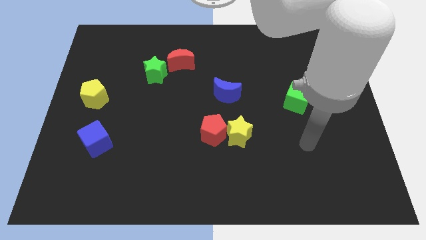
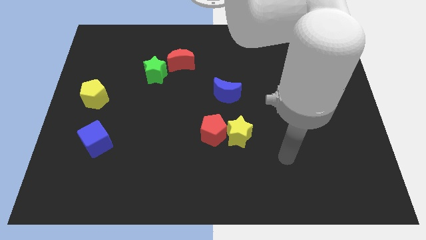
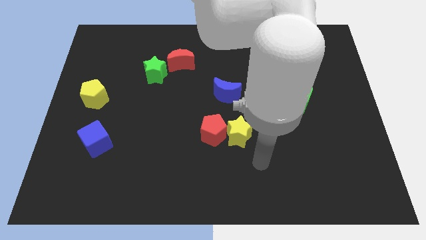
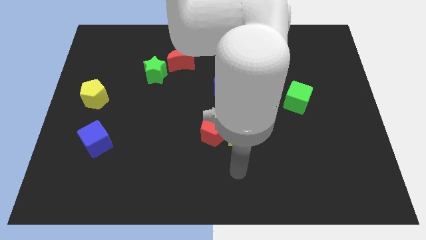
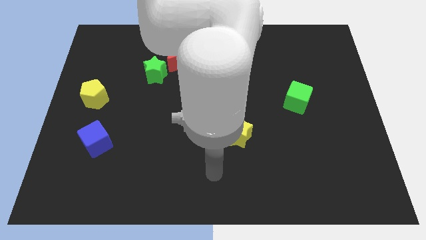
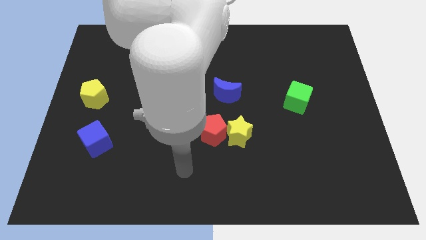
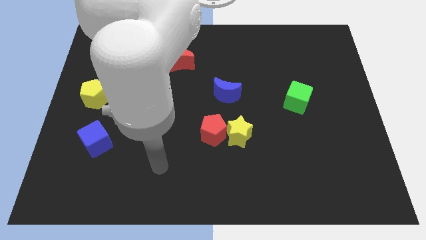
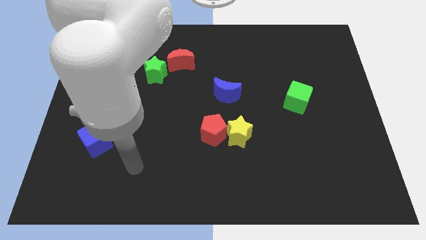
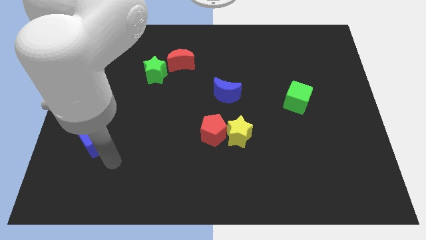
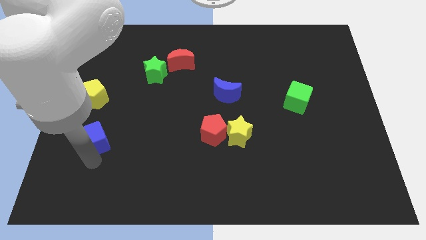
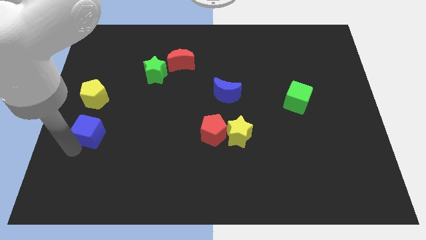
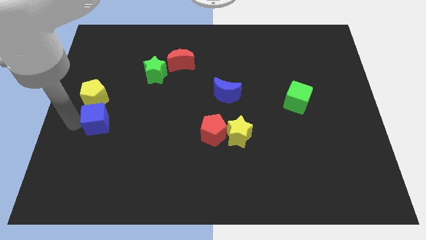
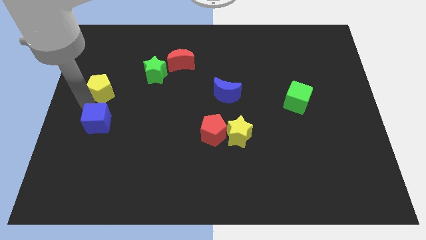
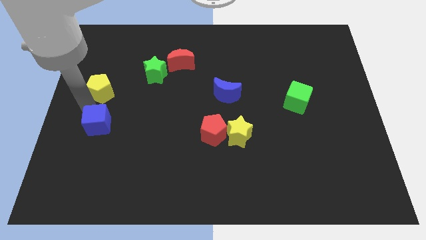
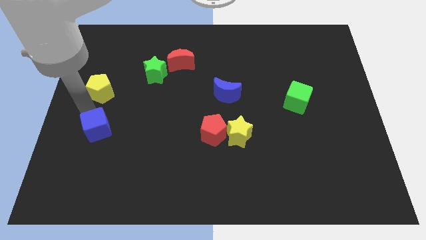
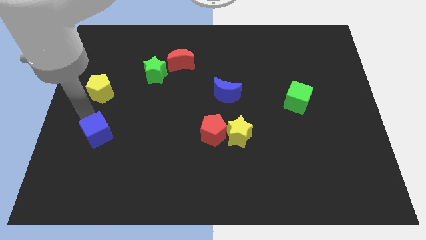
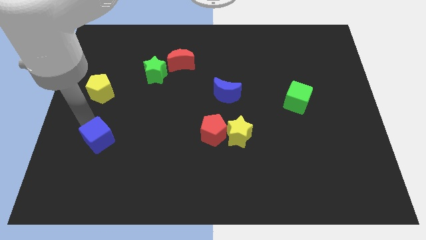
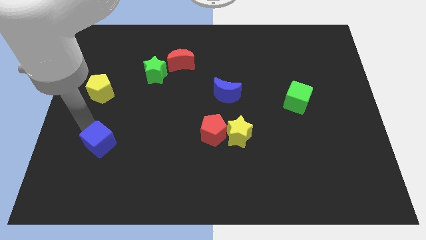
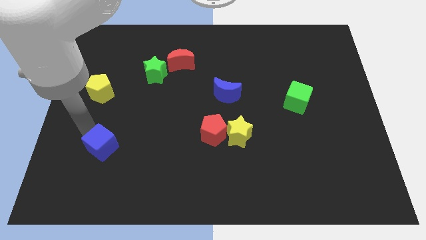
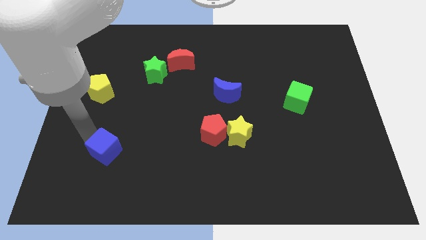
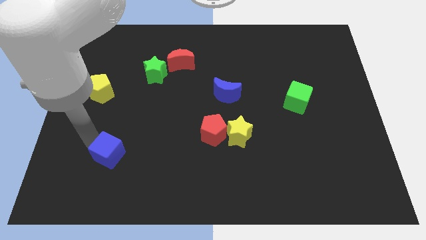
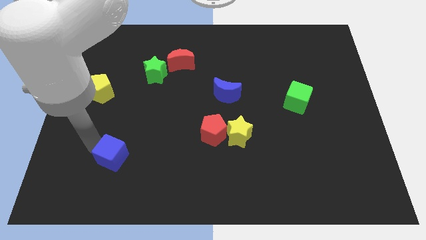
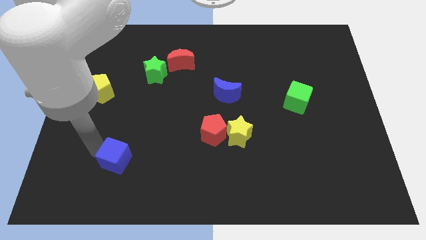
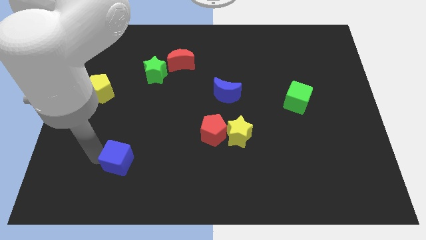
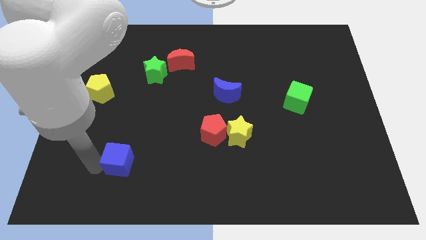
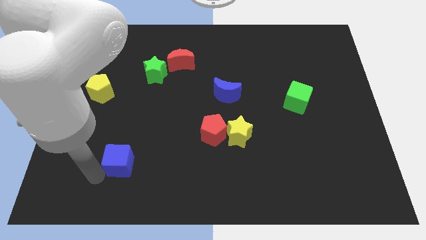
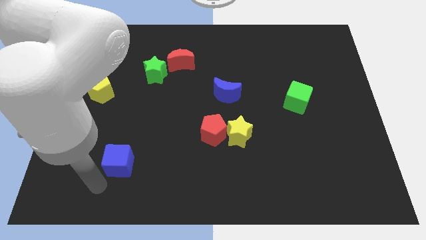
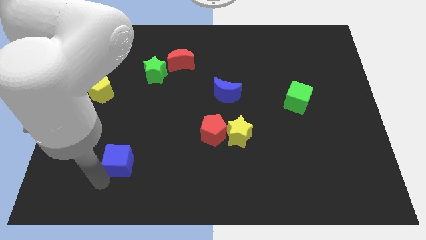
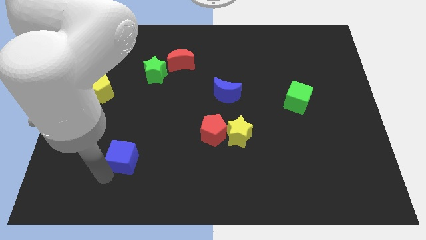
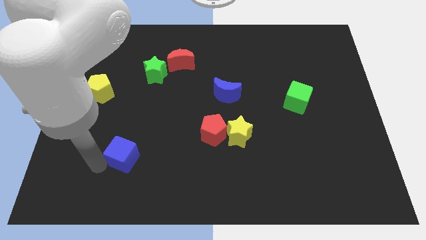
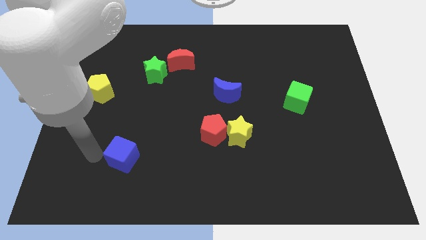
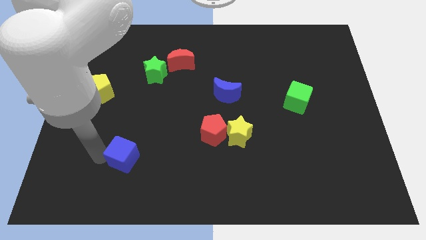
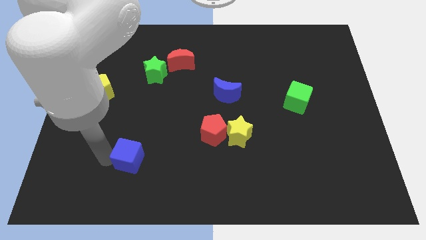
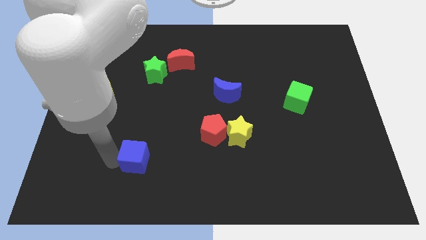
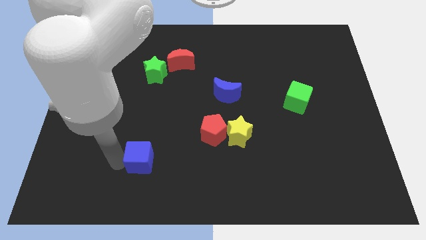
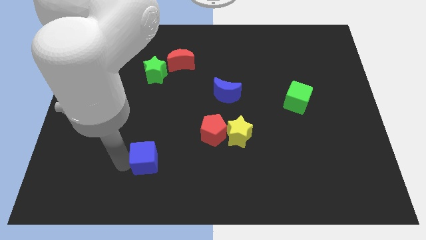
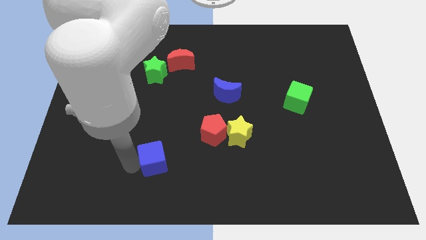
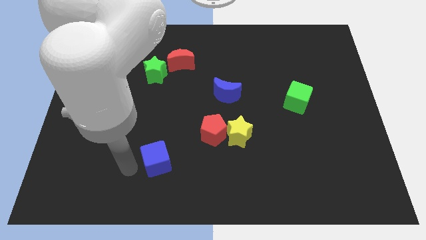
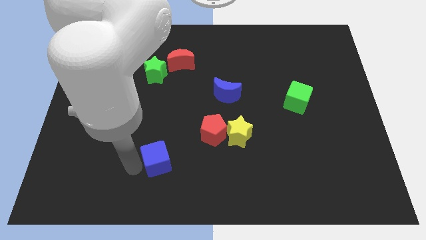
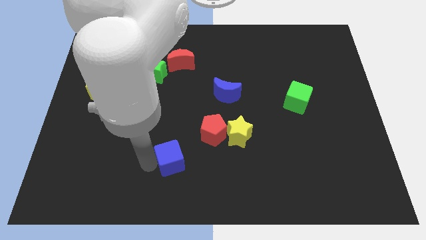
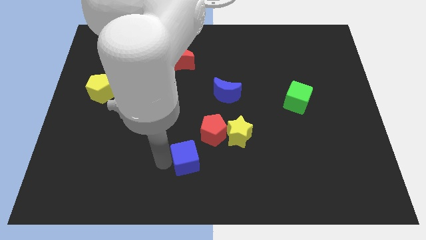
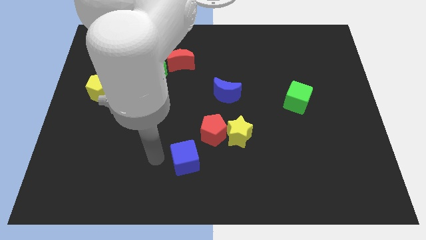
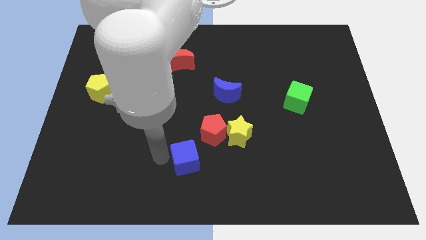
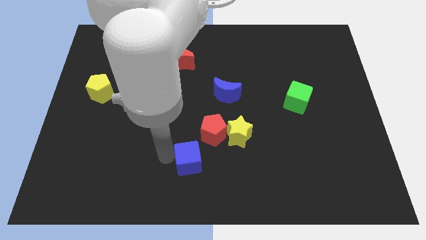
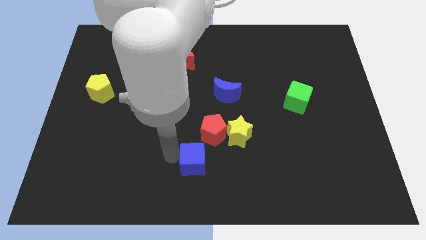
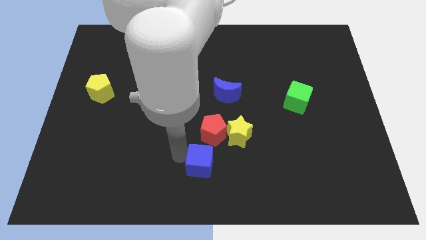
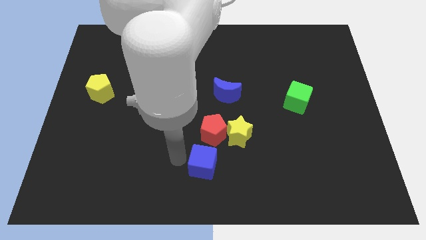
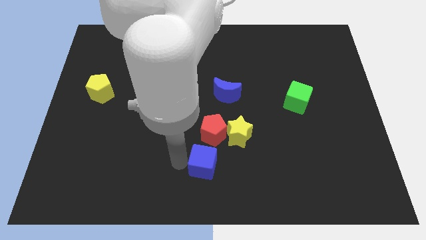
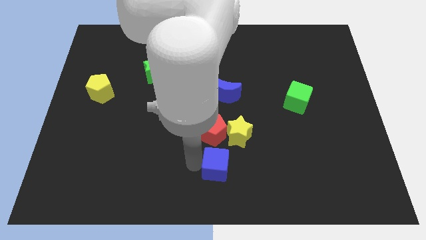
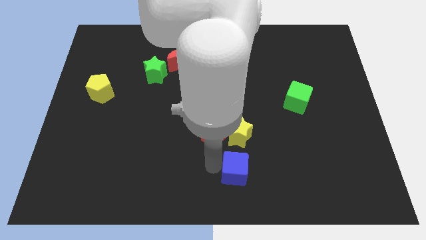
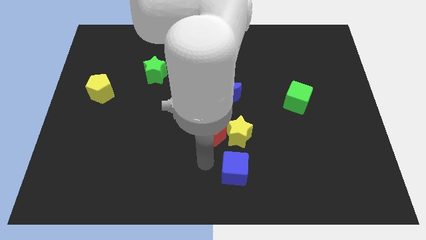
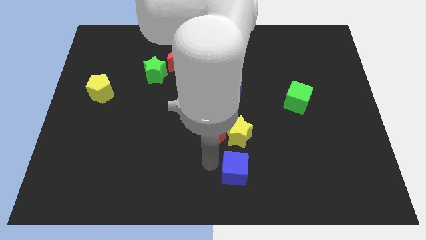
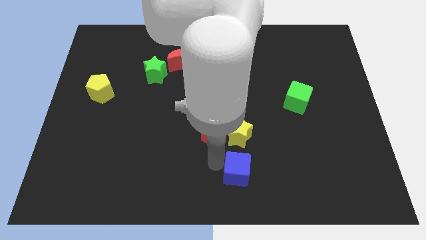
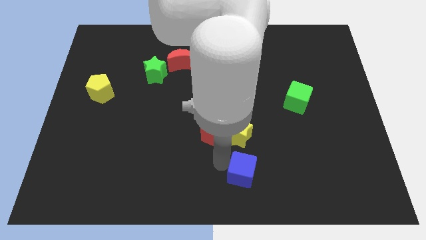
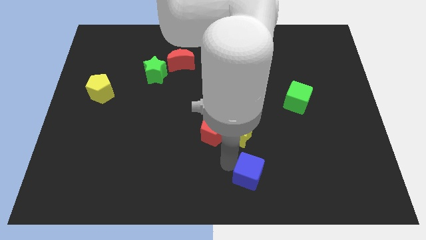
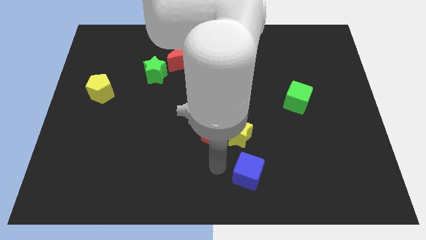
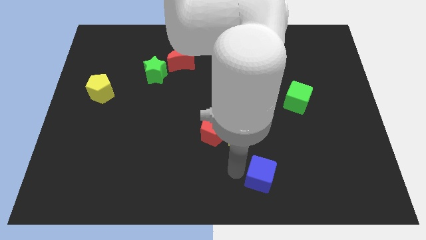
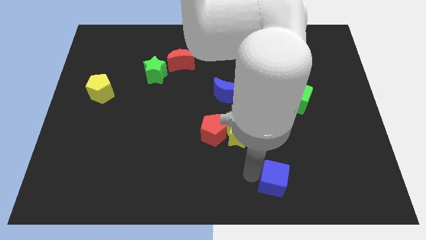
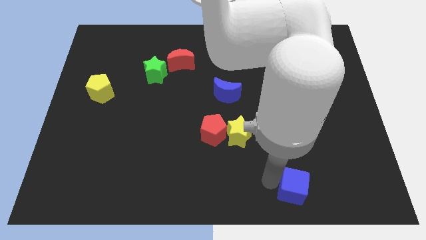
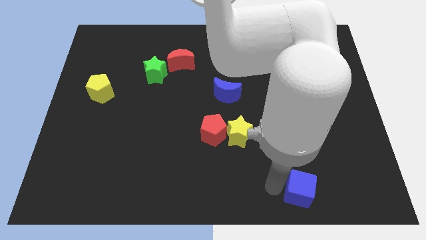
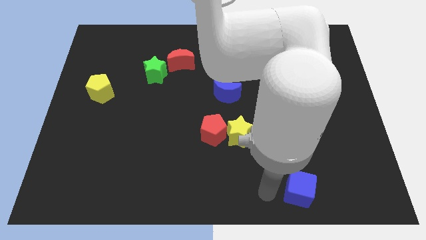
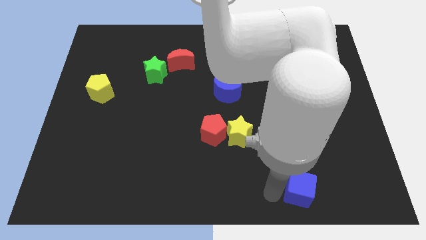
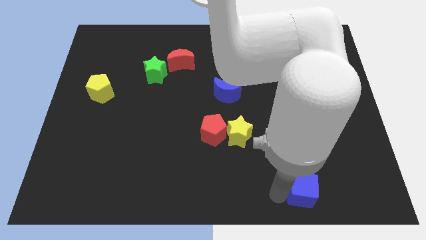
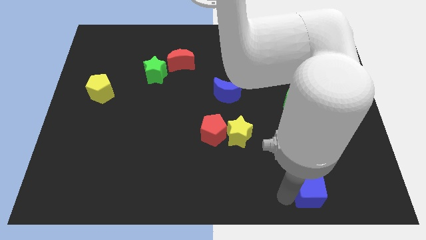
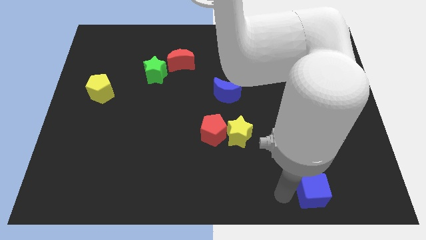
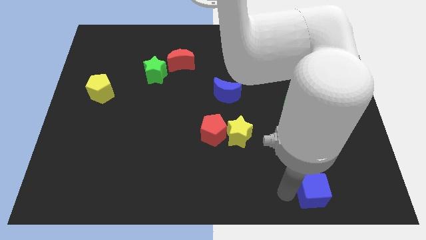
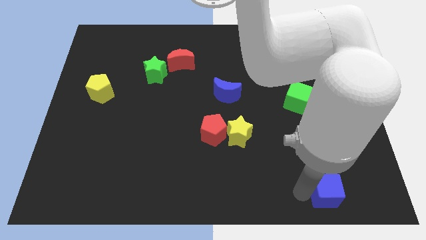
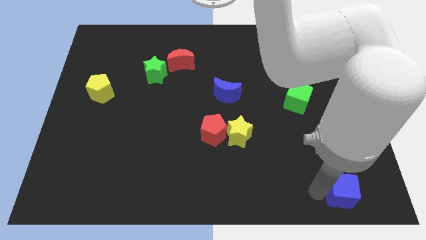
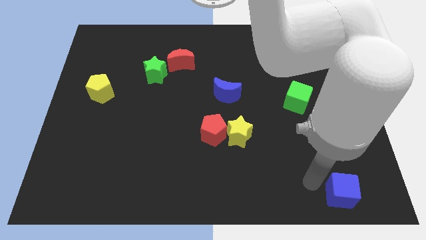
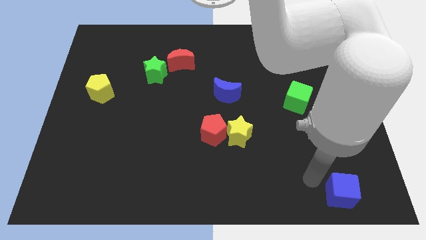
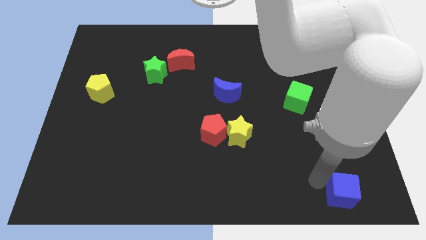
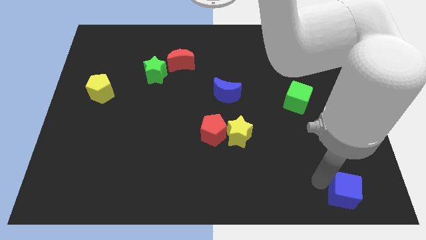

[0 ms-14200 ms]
slide the blue cube to the lower right corner
